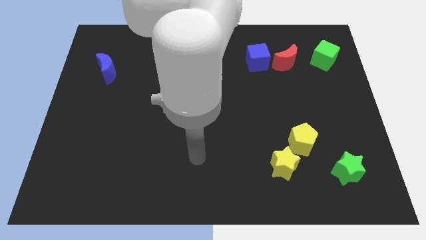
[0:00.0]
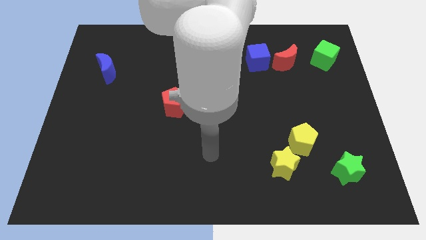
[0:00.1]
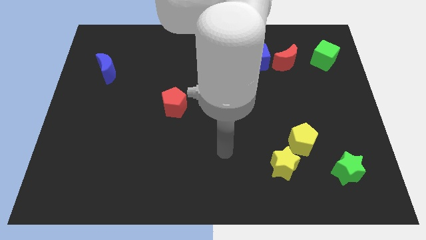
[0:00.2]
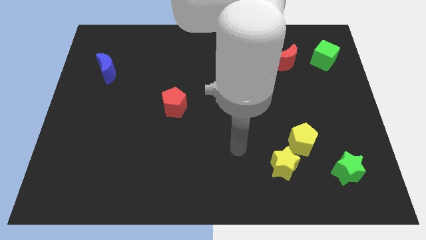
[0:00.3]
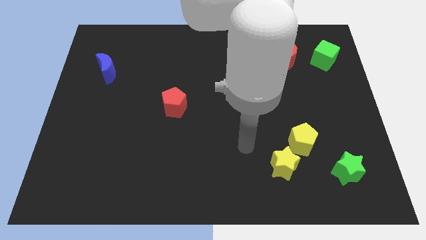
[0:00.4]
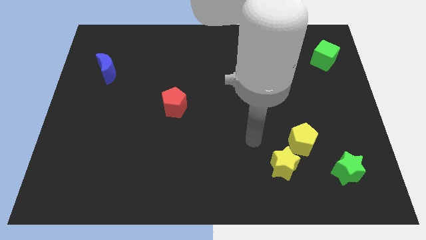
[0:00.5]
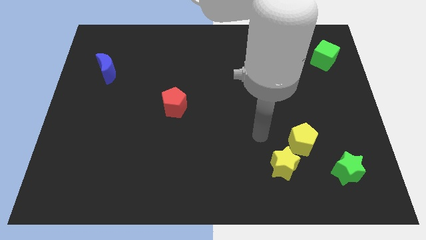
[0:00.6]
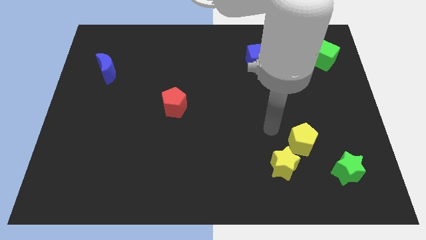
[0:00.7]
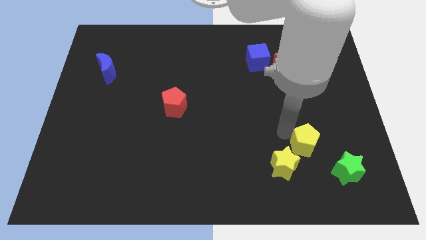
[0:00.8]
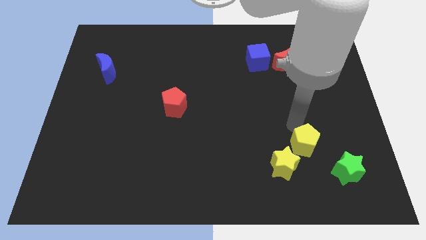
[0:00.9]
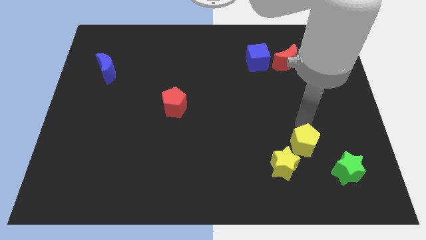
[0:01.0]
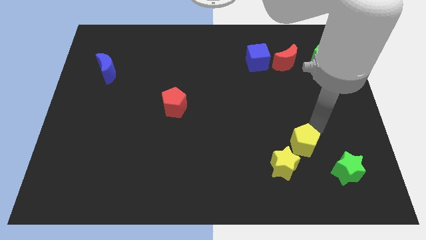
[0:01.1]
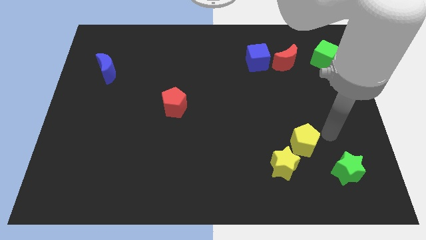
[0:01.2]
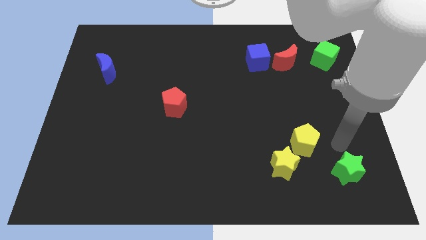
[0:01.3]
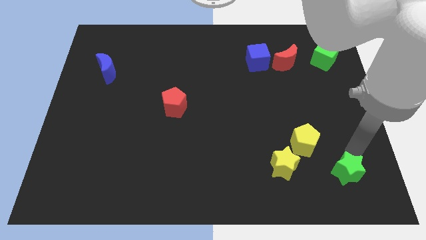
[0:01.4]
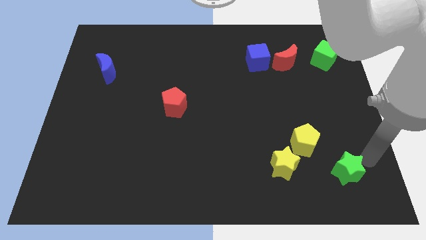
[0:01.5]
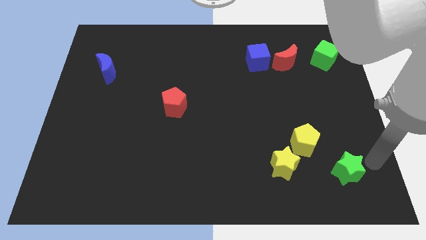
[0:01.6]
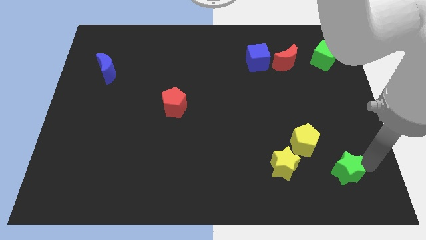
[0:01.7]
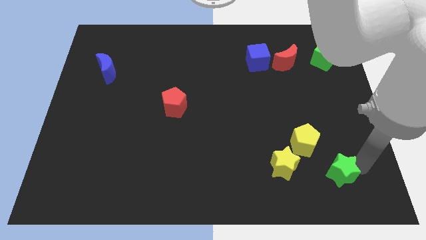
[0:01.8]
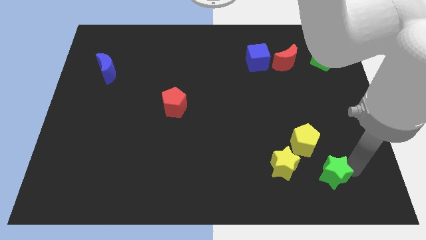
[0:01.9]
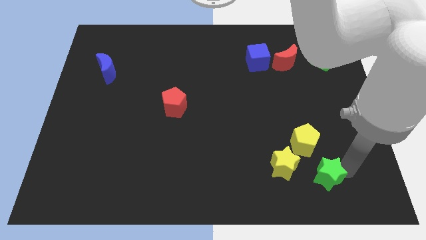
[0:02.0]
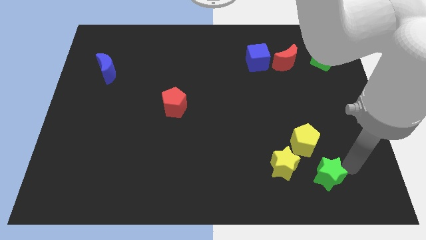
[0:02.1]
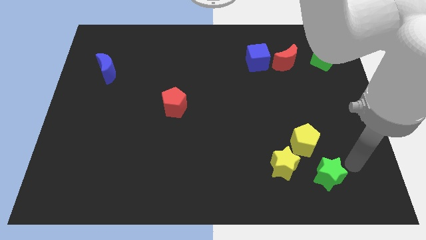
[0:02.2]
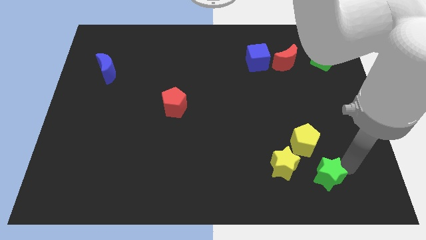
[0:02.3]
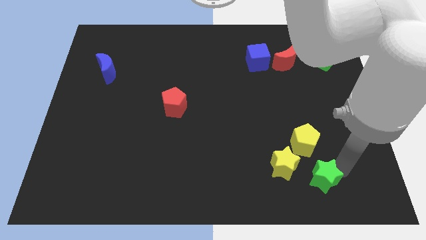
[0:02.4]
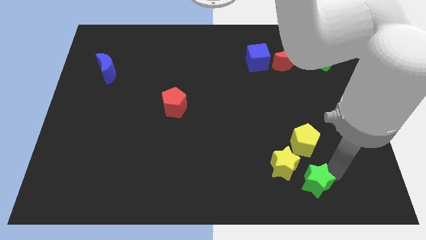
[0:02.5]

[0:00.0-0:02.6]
move the green star left a little

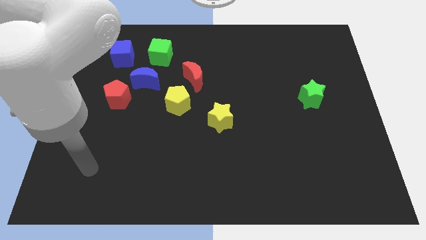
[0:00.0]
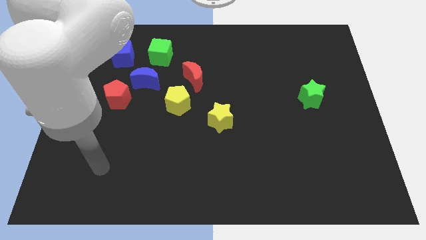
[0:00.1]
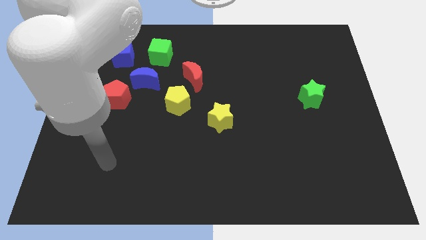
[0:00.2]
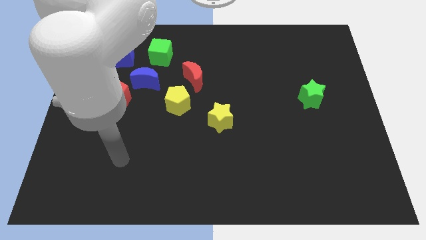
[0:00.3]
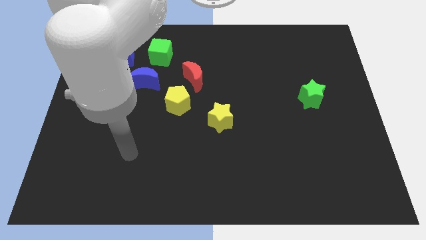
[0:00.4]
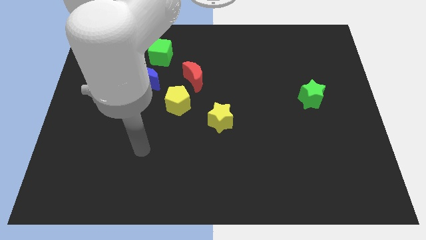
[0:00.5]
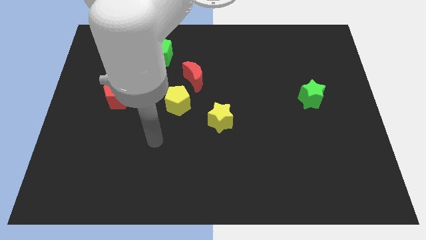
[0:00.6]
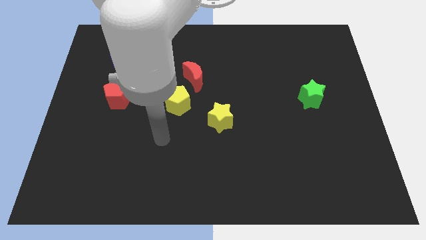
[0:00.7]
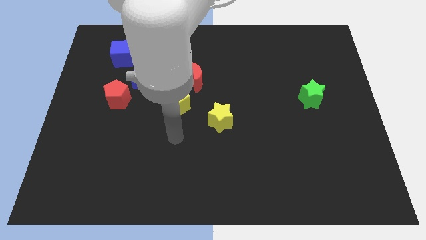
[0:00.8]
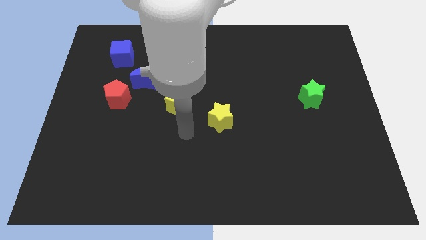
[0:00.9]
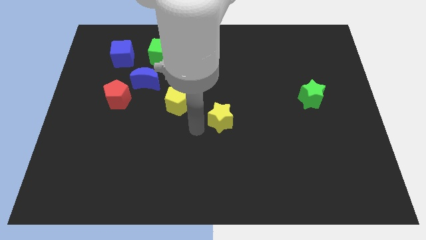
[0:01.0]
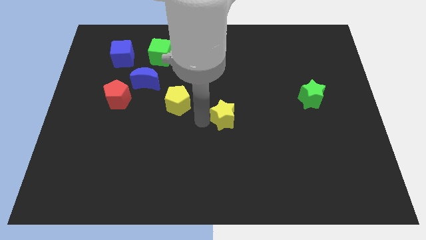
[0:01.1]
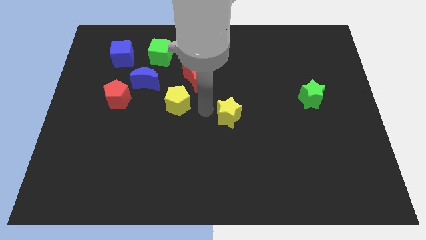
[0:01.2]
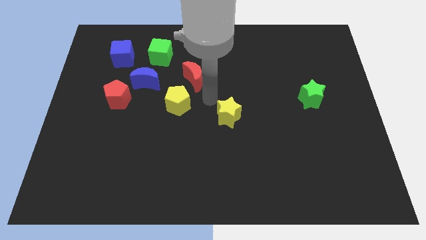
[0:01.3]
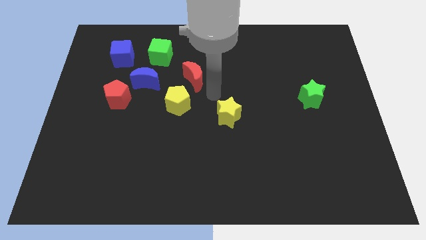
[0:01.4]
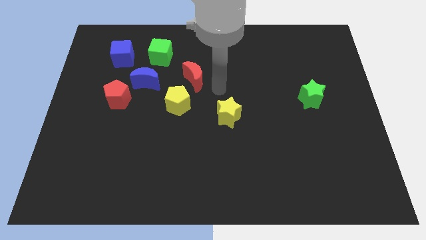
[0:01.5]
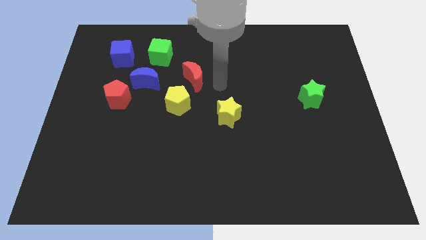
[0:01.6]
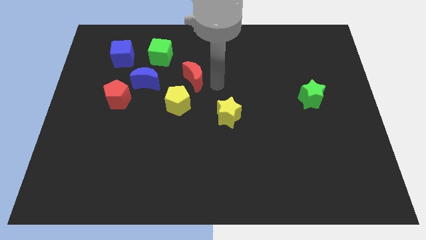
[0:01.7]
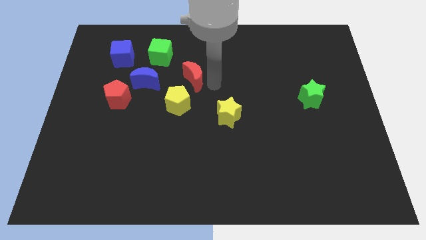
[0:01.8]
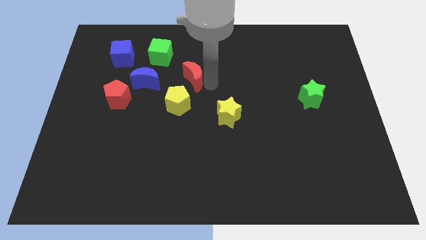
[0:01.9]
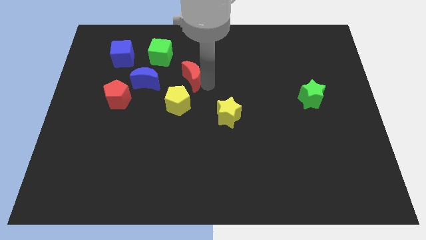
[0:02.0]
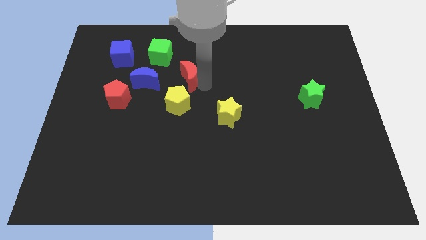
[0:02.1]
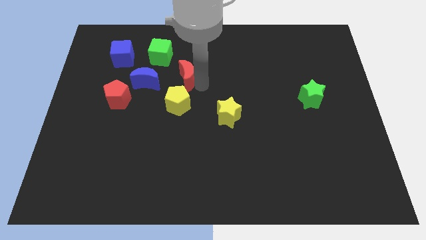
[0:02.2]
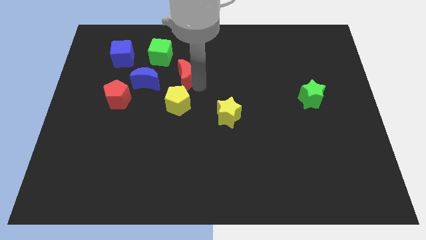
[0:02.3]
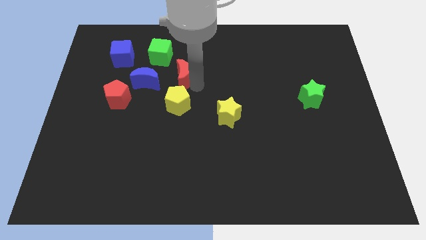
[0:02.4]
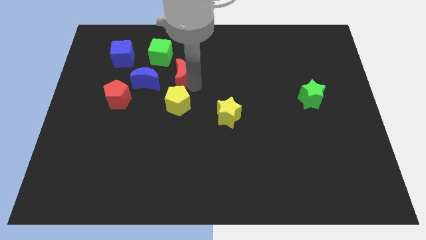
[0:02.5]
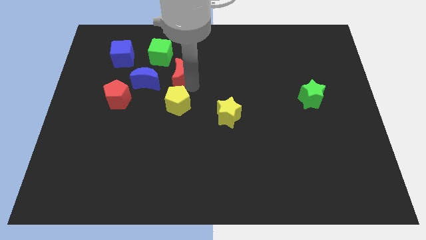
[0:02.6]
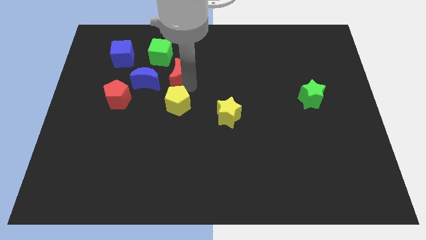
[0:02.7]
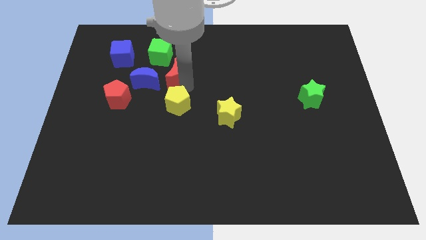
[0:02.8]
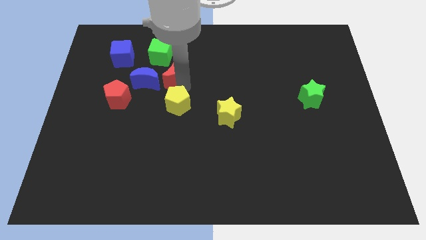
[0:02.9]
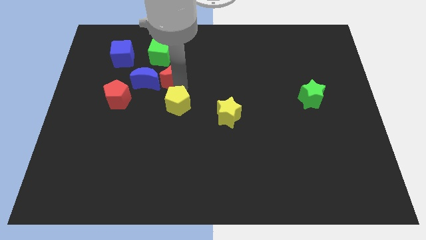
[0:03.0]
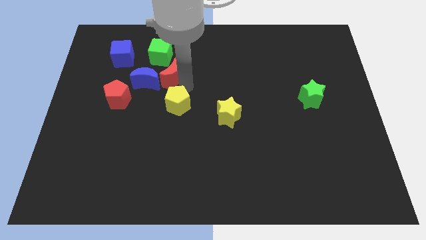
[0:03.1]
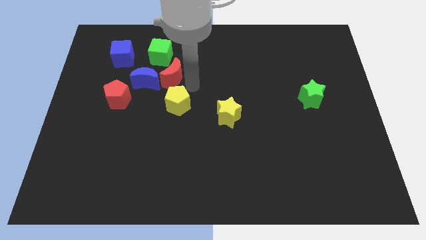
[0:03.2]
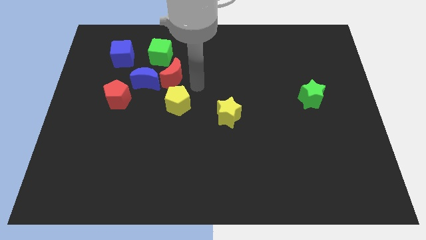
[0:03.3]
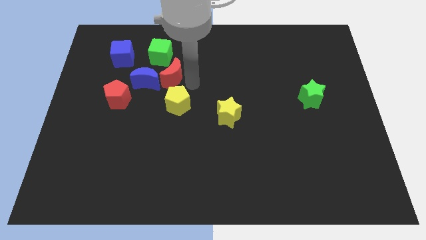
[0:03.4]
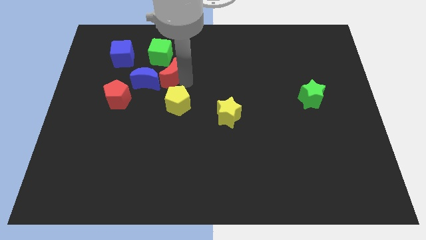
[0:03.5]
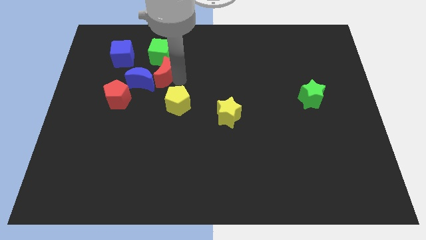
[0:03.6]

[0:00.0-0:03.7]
push the red moon a little bit to the left

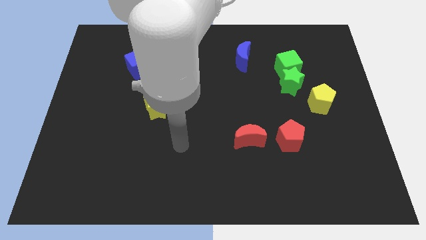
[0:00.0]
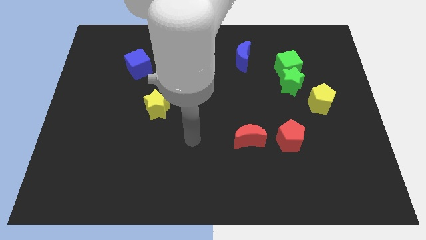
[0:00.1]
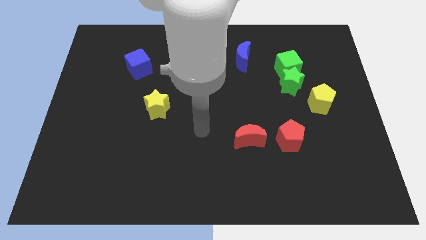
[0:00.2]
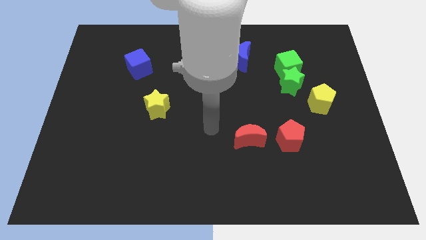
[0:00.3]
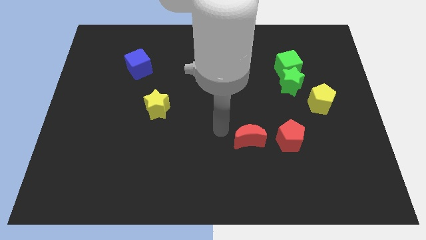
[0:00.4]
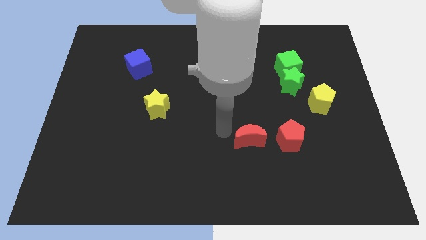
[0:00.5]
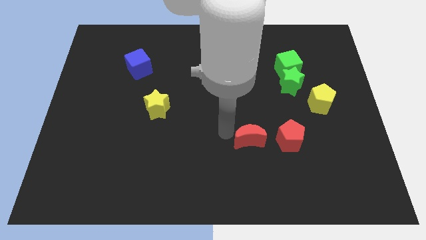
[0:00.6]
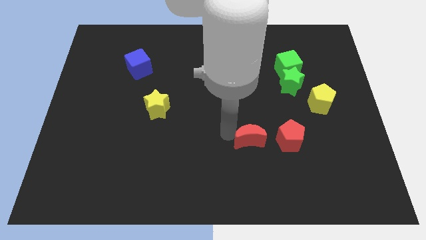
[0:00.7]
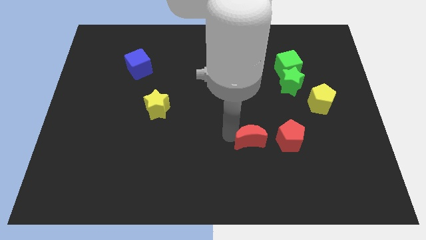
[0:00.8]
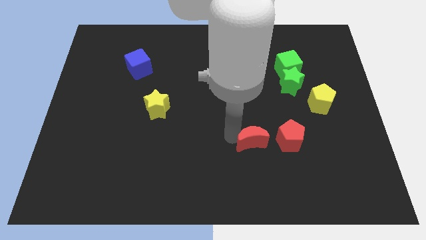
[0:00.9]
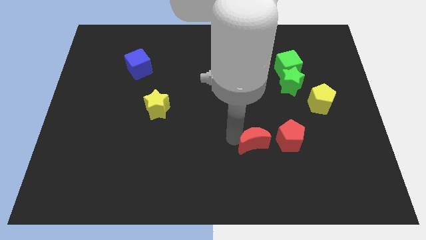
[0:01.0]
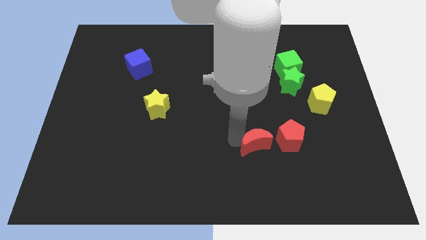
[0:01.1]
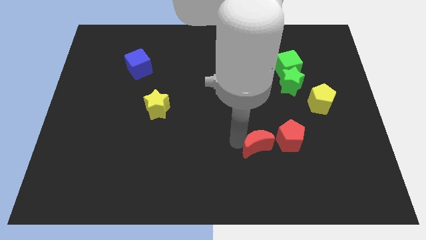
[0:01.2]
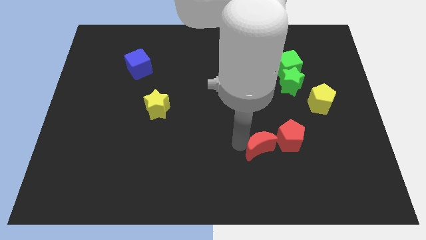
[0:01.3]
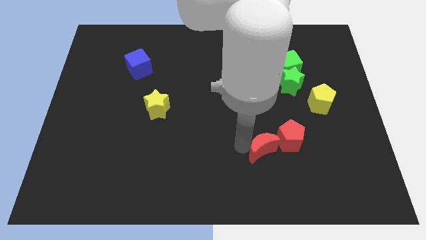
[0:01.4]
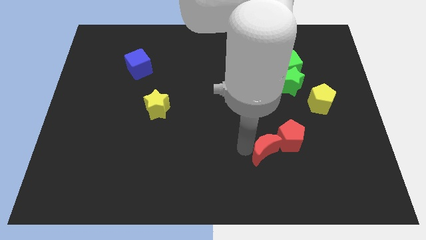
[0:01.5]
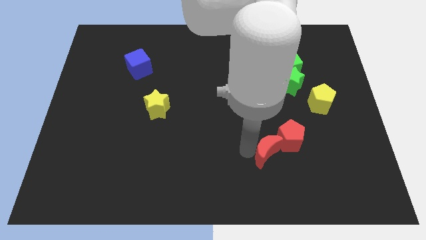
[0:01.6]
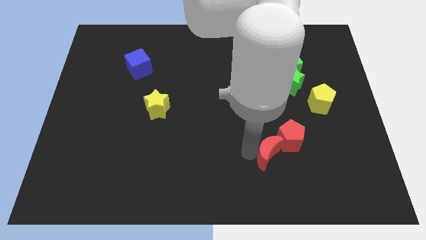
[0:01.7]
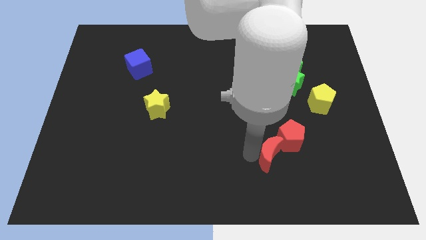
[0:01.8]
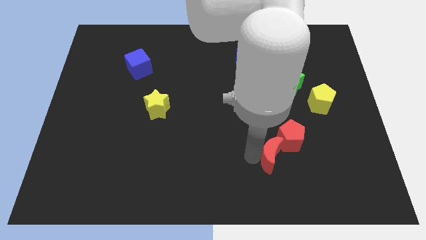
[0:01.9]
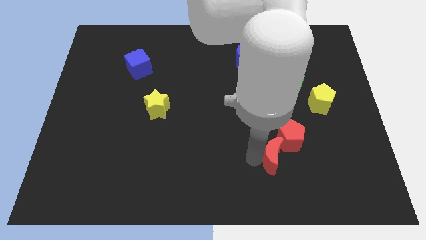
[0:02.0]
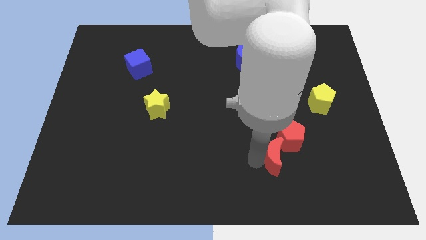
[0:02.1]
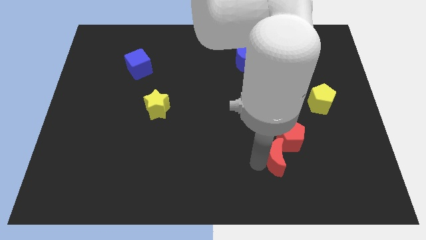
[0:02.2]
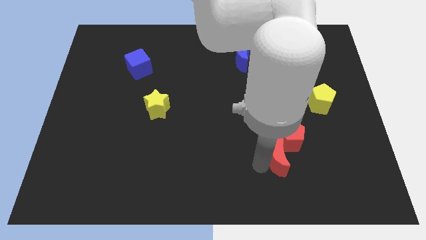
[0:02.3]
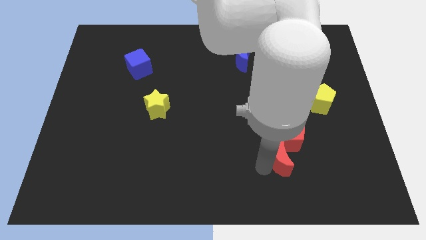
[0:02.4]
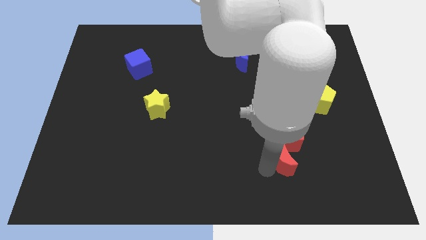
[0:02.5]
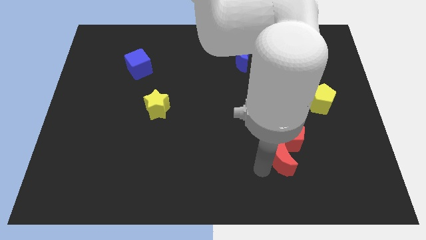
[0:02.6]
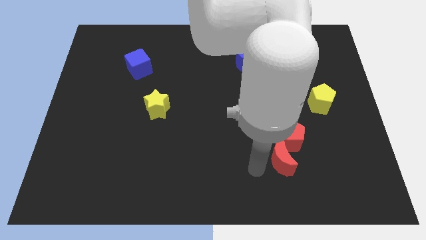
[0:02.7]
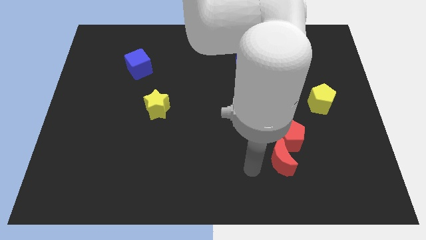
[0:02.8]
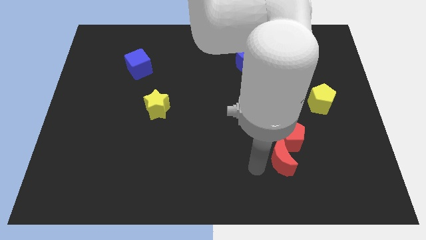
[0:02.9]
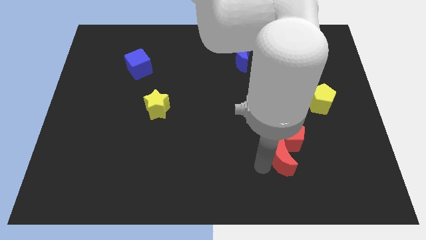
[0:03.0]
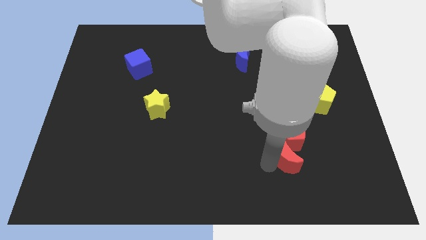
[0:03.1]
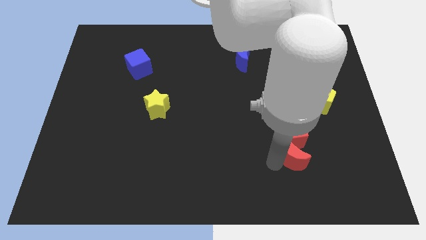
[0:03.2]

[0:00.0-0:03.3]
slightly move the red moon to the right
